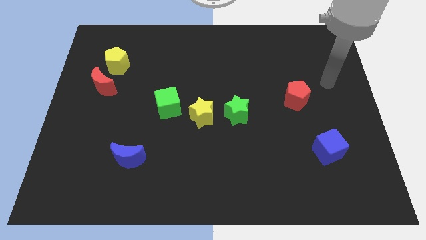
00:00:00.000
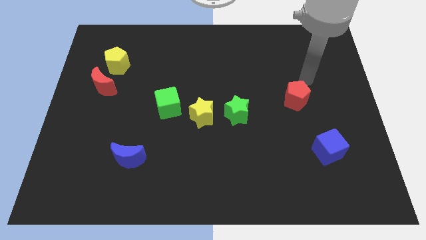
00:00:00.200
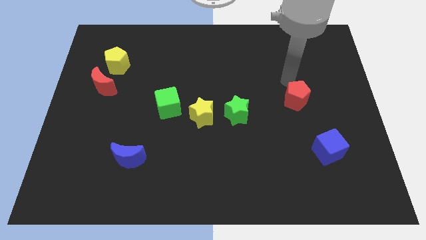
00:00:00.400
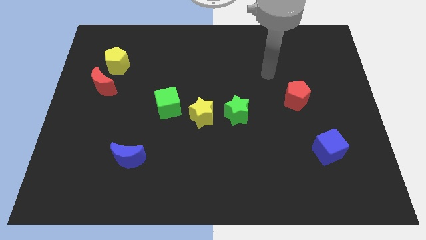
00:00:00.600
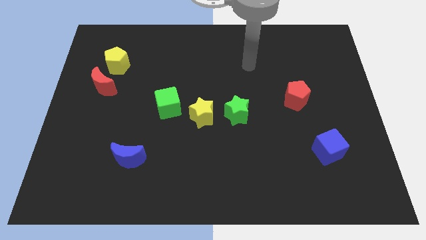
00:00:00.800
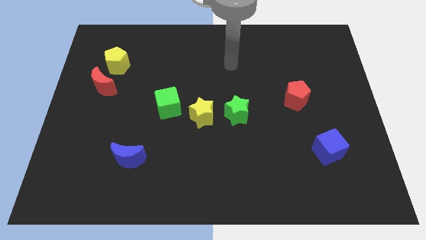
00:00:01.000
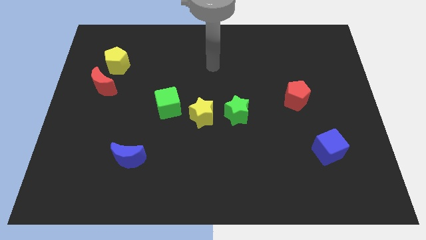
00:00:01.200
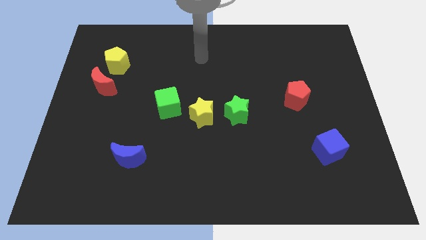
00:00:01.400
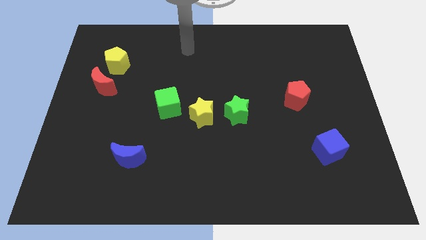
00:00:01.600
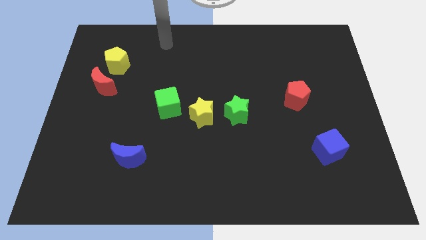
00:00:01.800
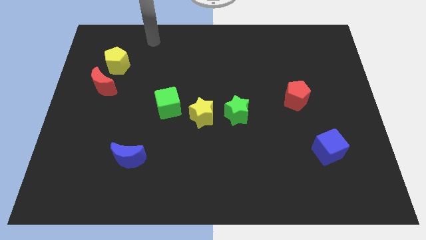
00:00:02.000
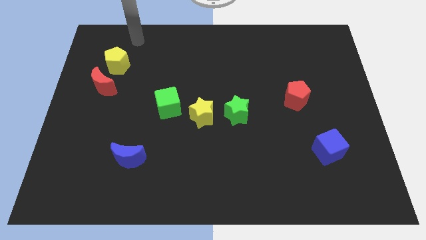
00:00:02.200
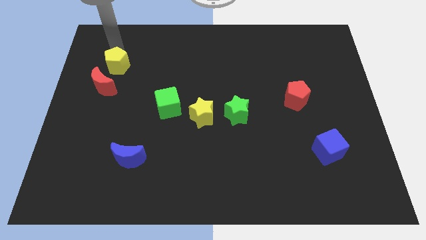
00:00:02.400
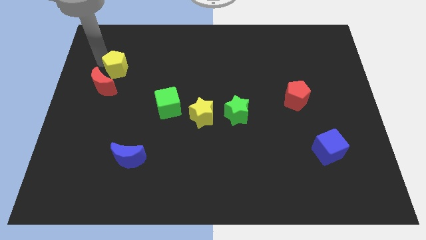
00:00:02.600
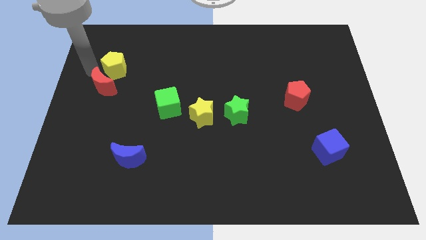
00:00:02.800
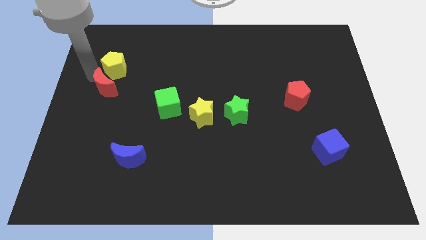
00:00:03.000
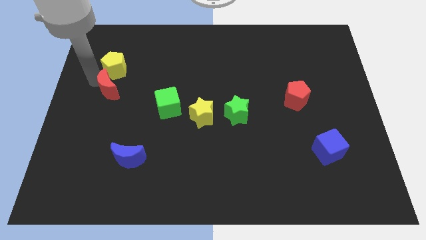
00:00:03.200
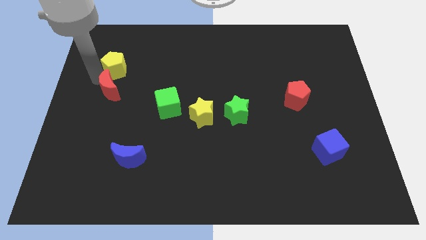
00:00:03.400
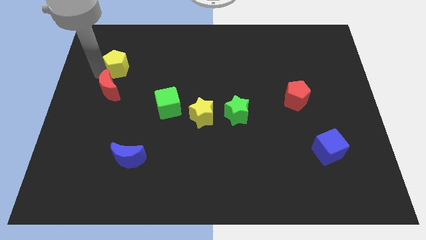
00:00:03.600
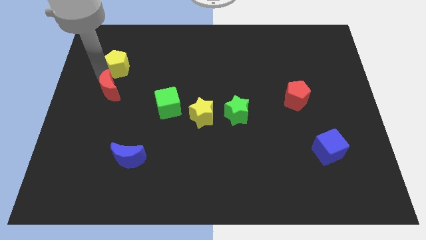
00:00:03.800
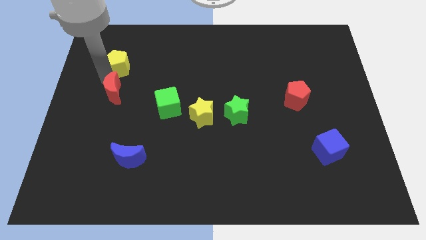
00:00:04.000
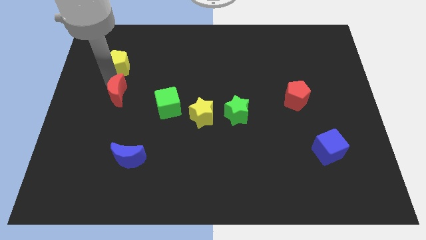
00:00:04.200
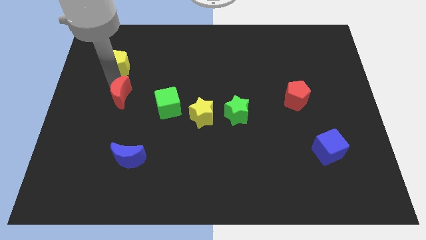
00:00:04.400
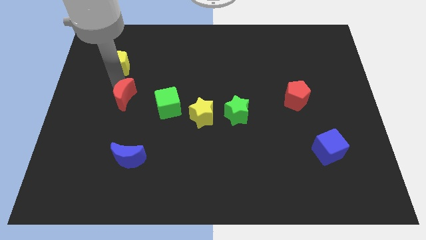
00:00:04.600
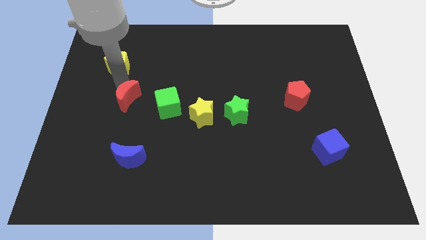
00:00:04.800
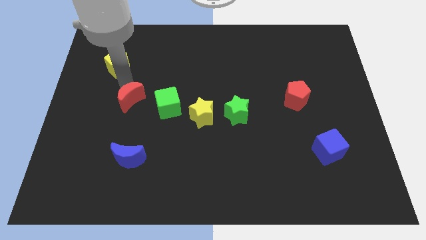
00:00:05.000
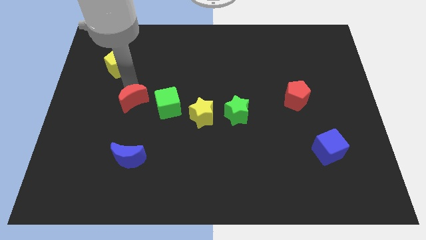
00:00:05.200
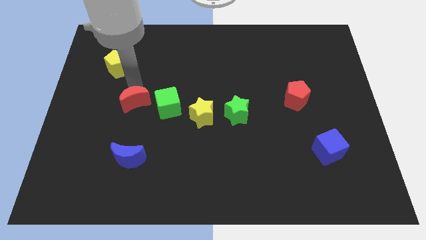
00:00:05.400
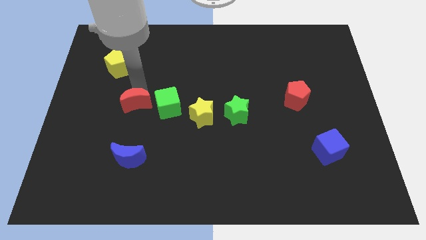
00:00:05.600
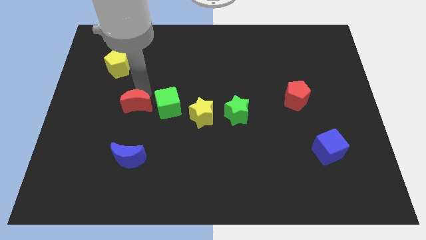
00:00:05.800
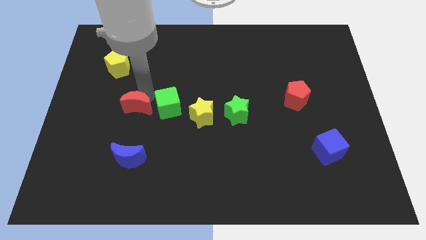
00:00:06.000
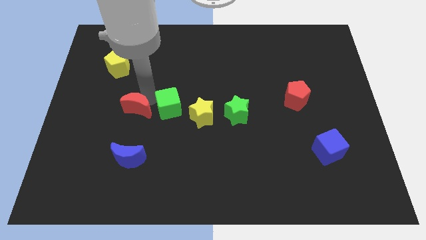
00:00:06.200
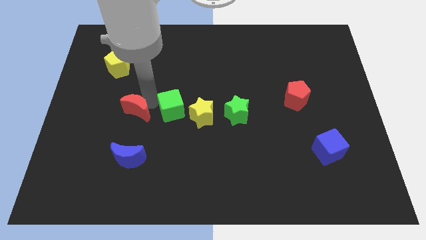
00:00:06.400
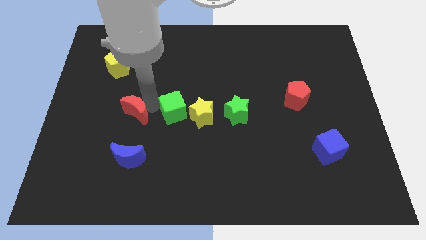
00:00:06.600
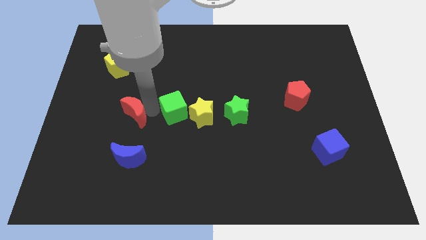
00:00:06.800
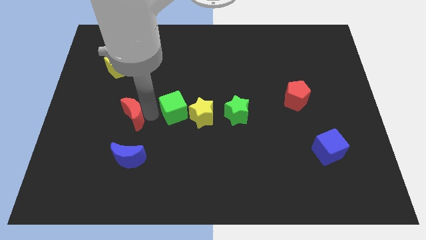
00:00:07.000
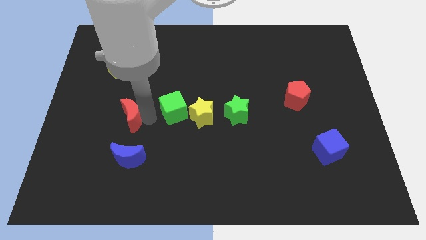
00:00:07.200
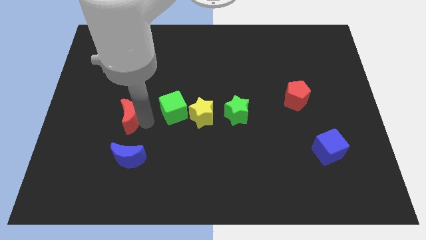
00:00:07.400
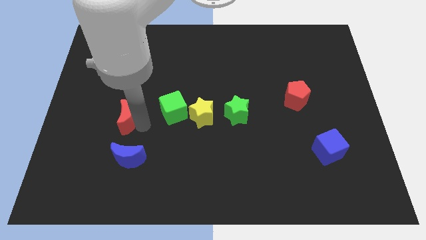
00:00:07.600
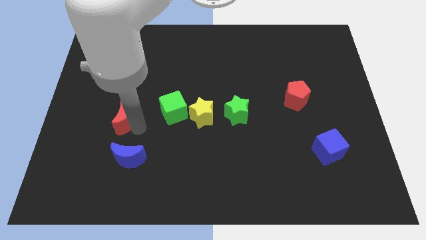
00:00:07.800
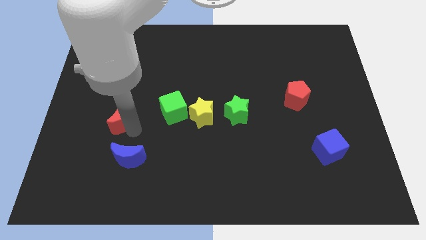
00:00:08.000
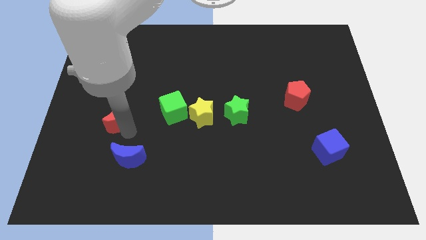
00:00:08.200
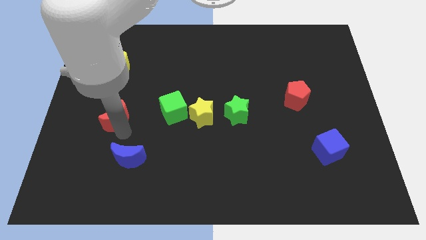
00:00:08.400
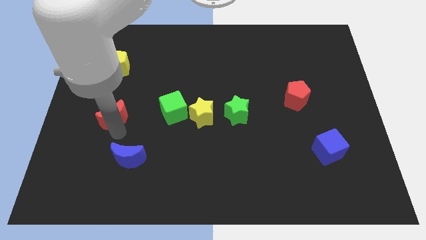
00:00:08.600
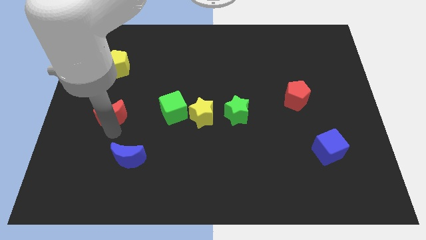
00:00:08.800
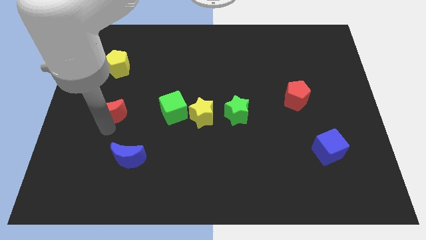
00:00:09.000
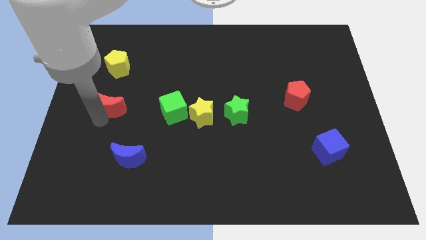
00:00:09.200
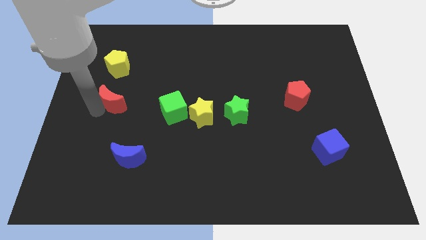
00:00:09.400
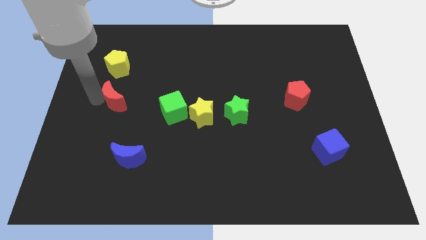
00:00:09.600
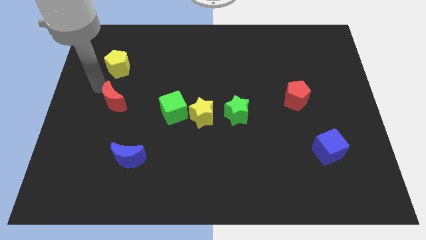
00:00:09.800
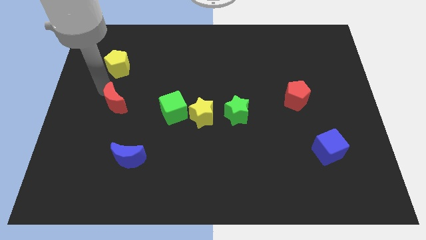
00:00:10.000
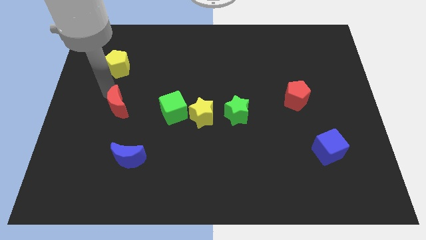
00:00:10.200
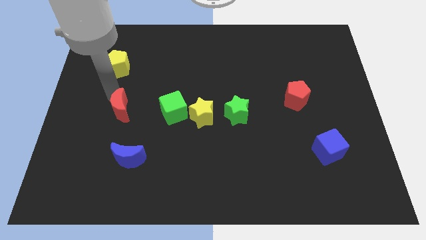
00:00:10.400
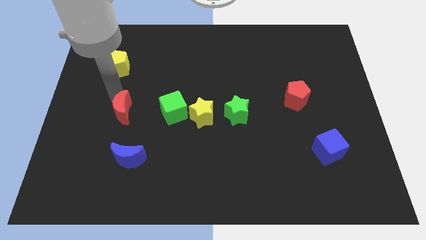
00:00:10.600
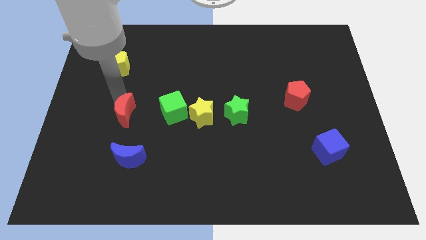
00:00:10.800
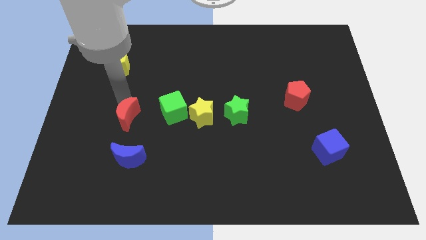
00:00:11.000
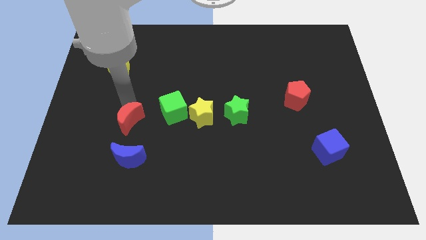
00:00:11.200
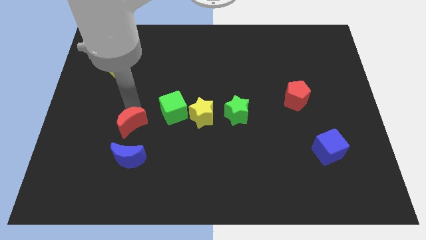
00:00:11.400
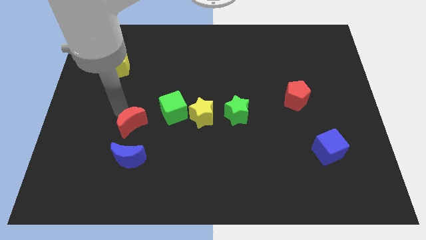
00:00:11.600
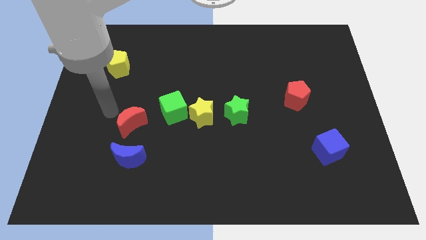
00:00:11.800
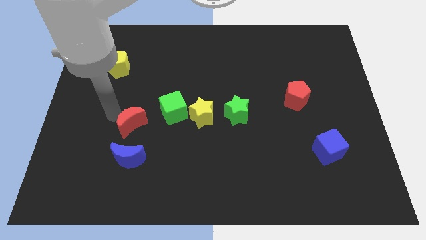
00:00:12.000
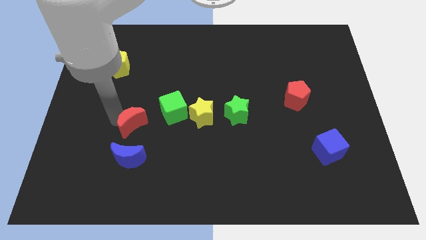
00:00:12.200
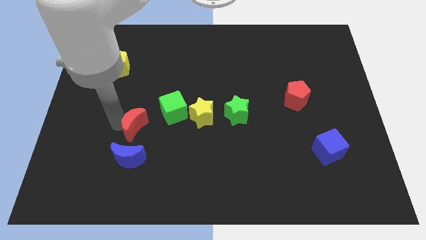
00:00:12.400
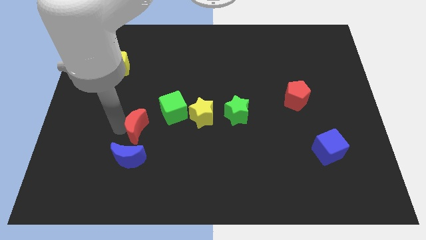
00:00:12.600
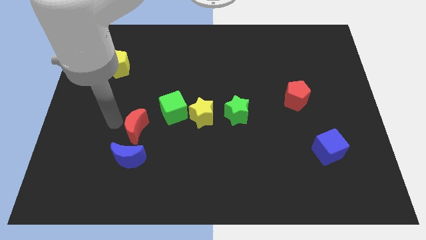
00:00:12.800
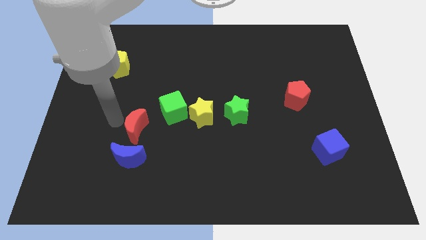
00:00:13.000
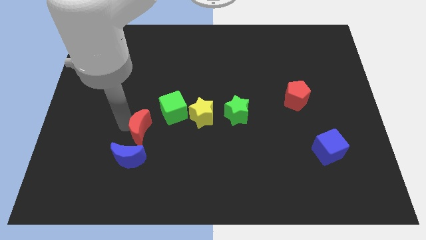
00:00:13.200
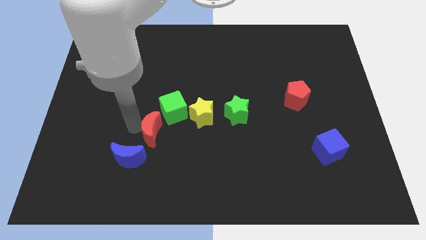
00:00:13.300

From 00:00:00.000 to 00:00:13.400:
slide the red moon to the bottom of the green cube

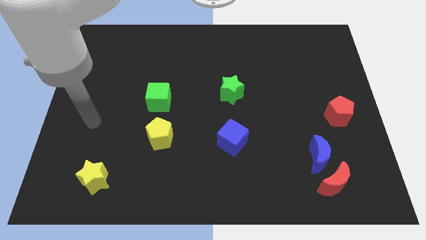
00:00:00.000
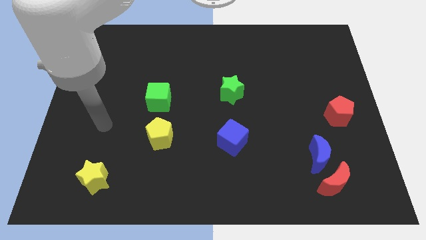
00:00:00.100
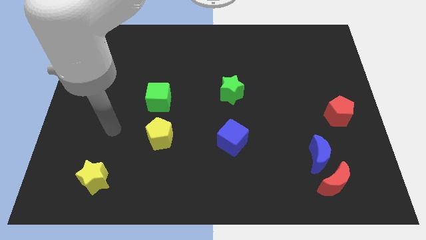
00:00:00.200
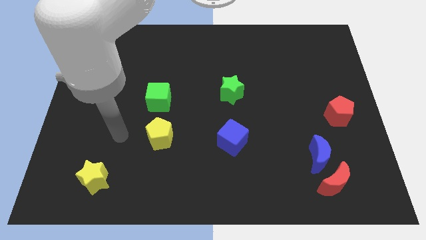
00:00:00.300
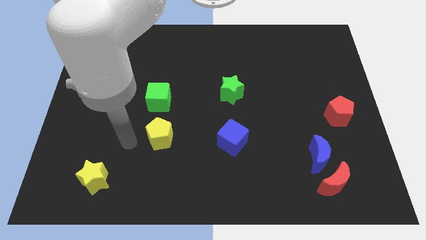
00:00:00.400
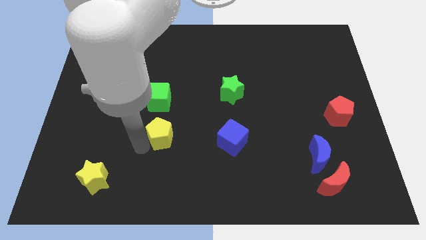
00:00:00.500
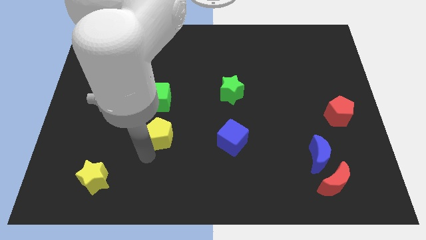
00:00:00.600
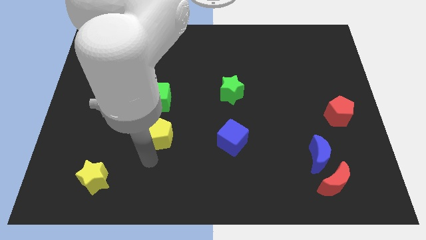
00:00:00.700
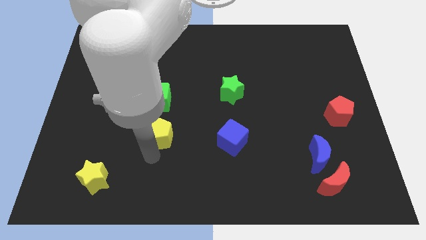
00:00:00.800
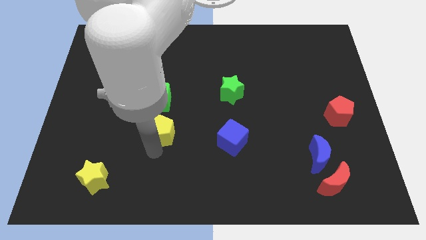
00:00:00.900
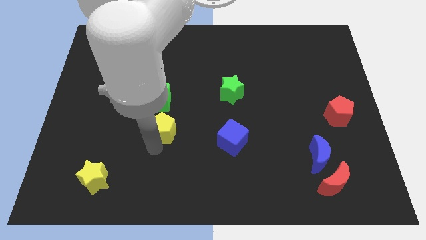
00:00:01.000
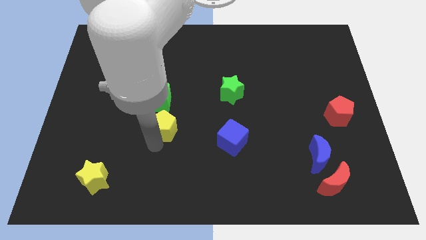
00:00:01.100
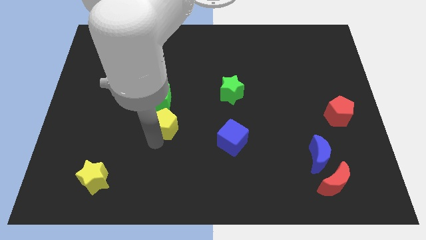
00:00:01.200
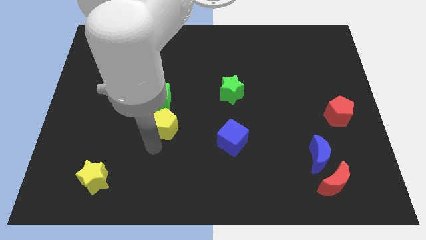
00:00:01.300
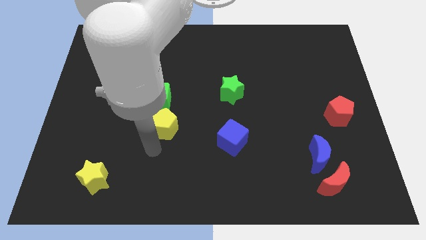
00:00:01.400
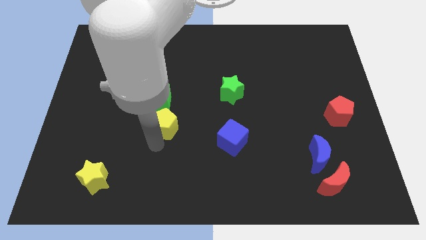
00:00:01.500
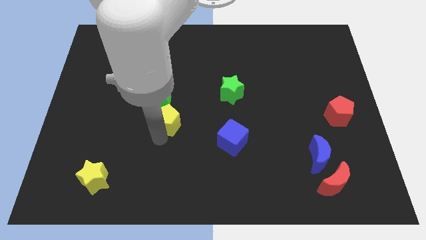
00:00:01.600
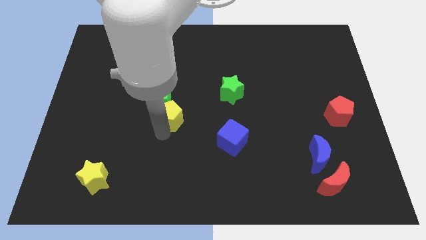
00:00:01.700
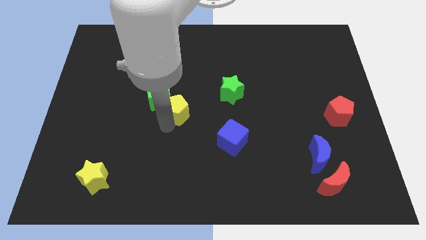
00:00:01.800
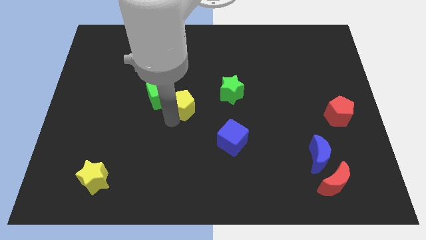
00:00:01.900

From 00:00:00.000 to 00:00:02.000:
put the yellow pentagon left of the green star

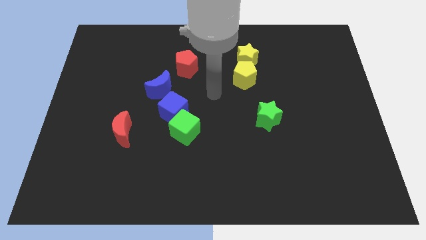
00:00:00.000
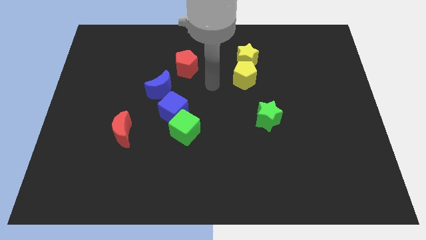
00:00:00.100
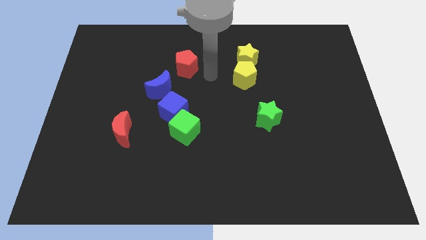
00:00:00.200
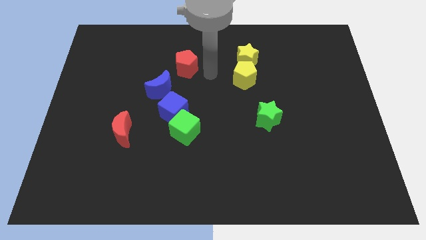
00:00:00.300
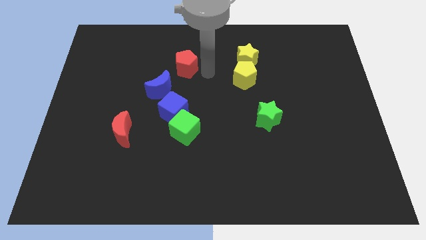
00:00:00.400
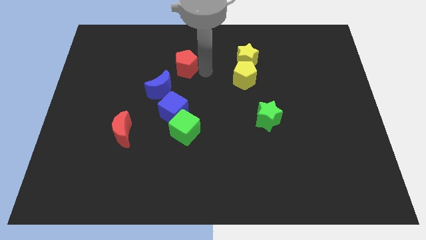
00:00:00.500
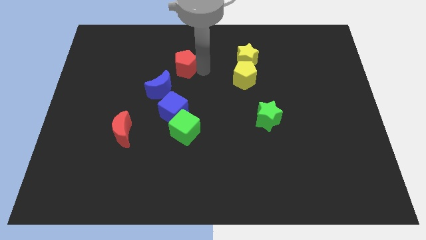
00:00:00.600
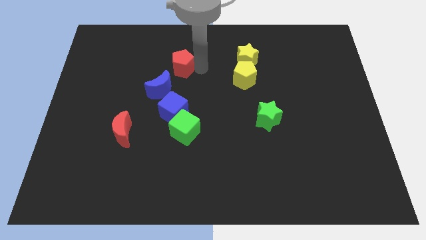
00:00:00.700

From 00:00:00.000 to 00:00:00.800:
move the red pentagon above the blue moon
